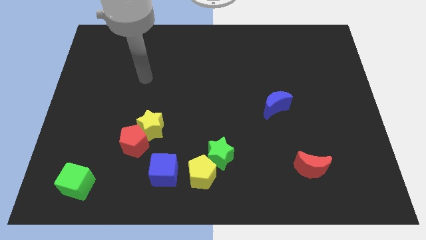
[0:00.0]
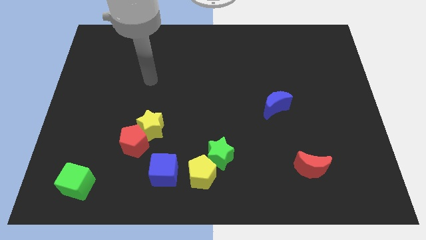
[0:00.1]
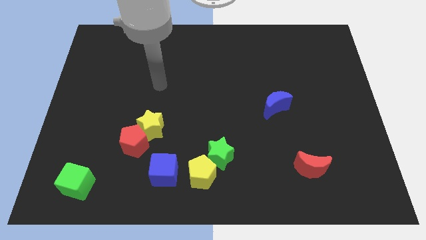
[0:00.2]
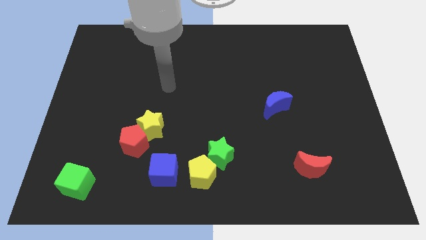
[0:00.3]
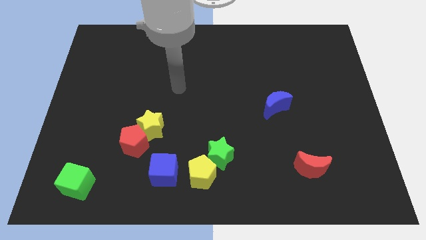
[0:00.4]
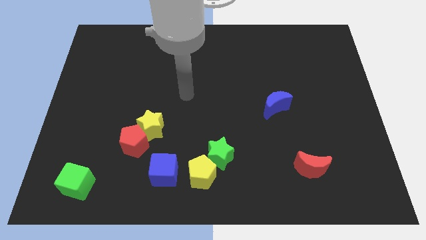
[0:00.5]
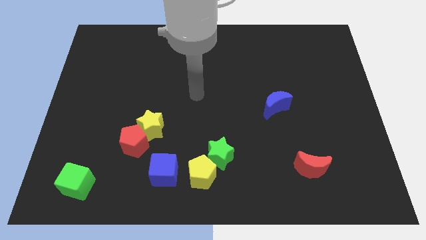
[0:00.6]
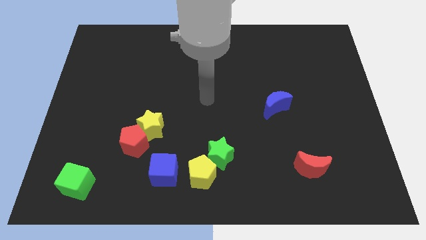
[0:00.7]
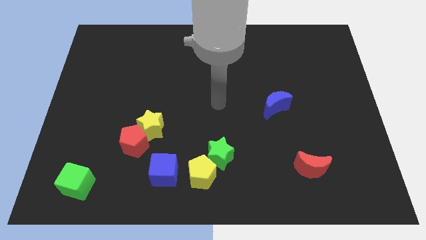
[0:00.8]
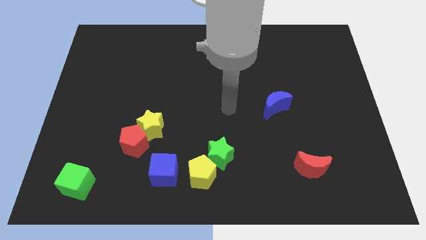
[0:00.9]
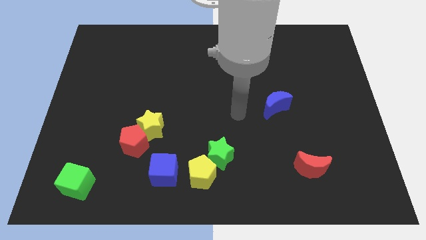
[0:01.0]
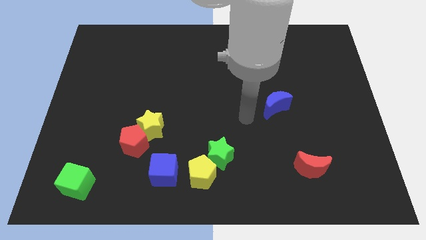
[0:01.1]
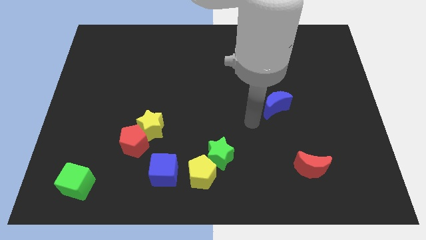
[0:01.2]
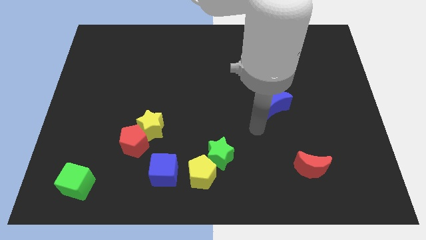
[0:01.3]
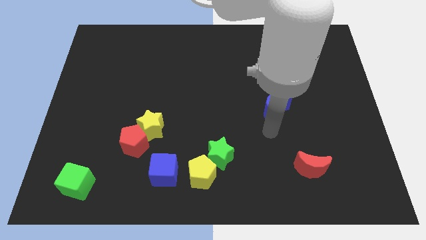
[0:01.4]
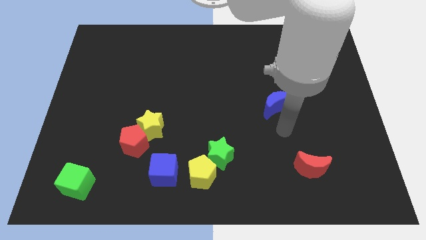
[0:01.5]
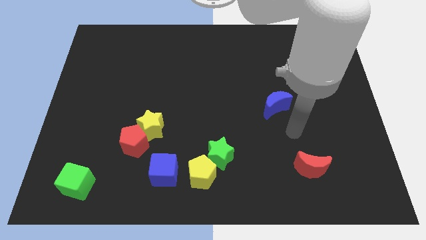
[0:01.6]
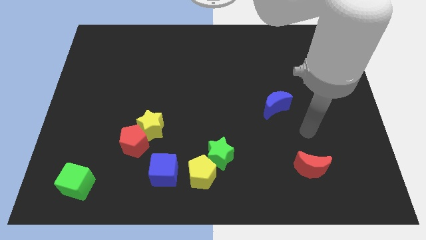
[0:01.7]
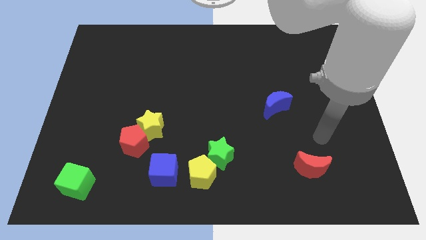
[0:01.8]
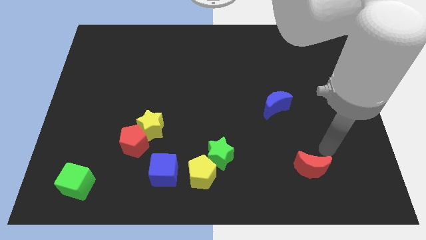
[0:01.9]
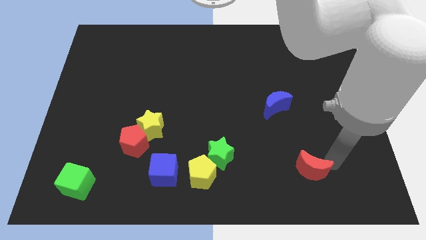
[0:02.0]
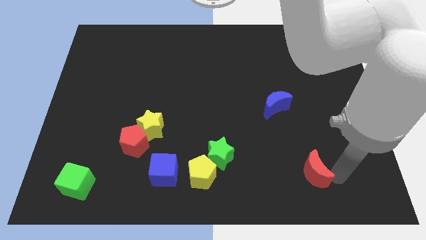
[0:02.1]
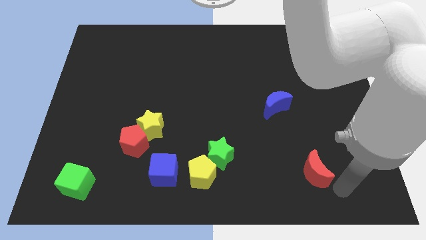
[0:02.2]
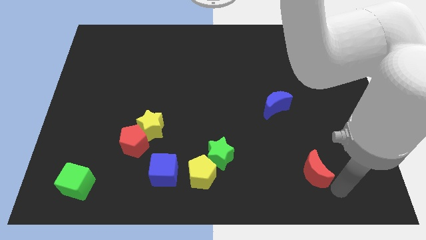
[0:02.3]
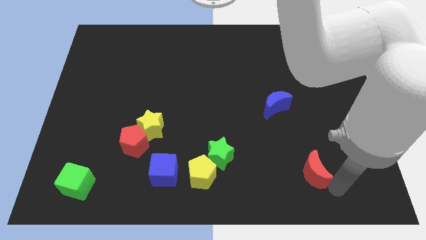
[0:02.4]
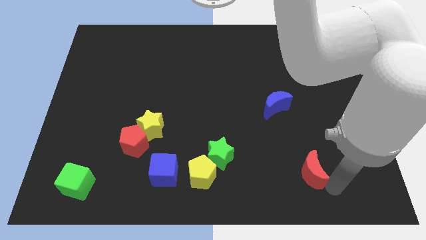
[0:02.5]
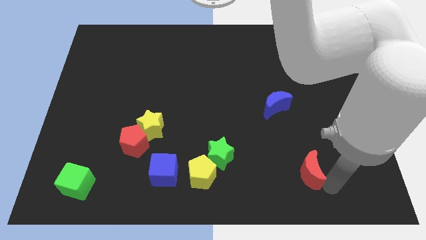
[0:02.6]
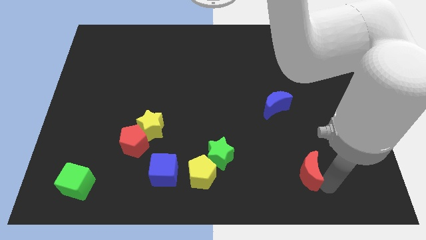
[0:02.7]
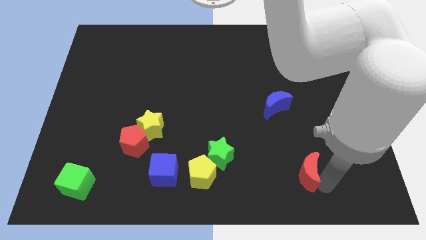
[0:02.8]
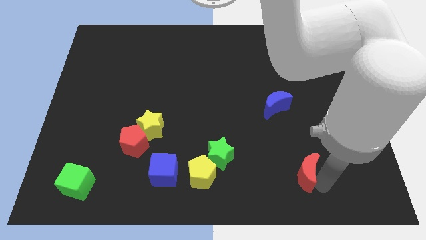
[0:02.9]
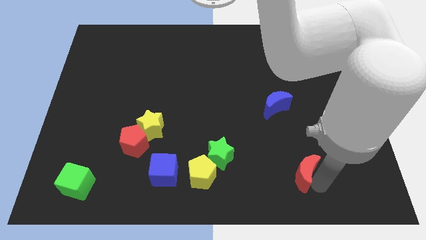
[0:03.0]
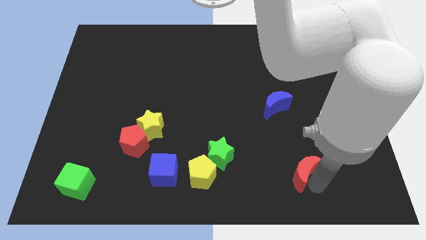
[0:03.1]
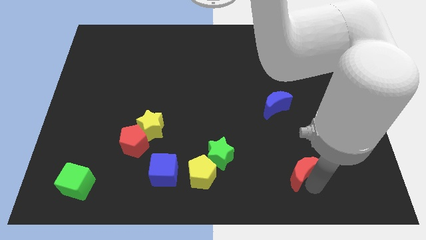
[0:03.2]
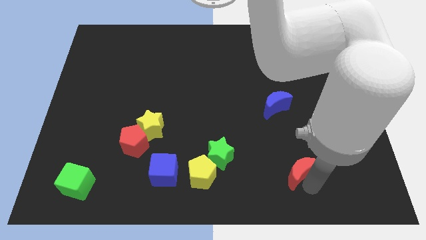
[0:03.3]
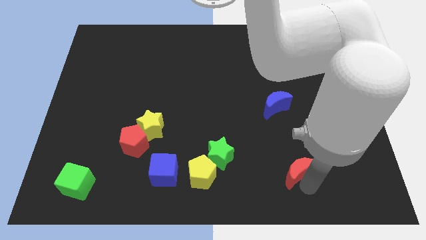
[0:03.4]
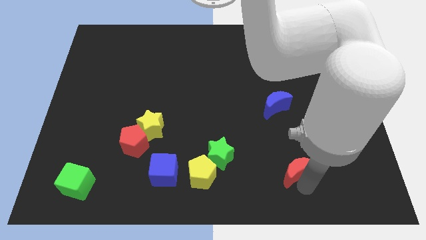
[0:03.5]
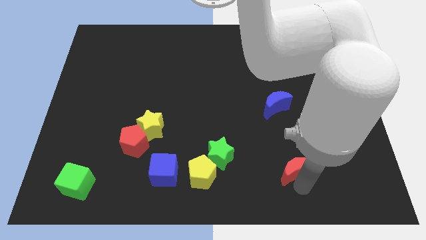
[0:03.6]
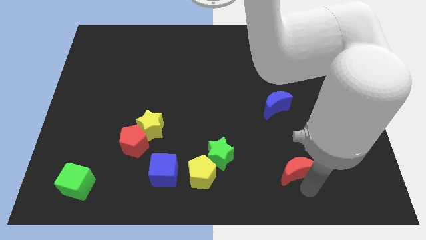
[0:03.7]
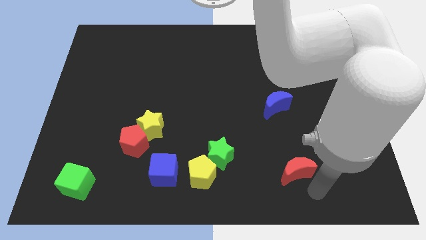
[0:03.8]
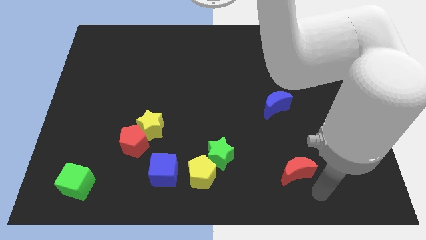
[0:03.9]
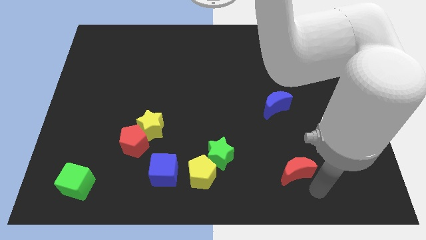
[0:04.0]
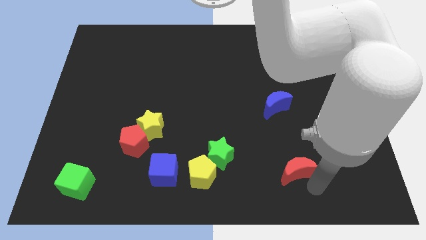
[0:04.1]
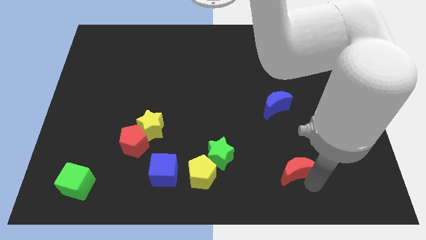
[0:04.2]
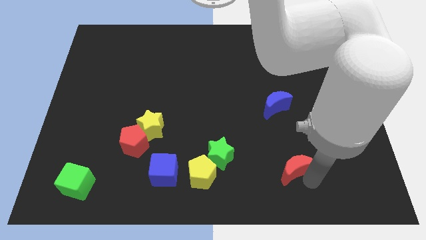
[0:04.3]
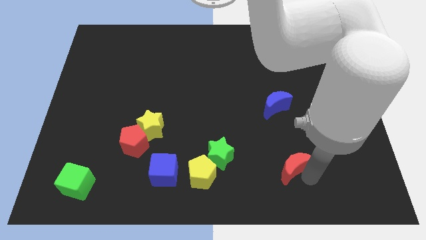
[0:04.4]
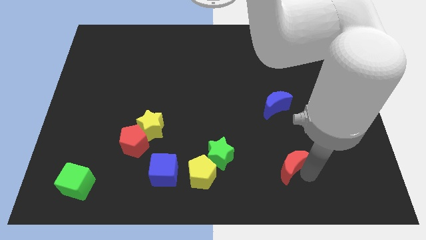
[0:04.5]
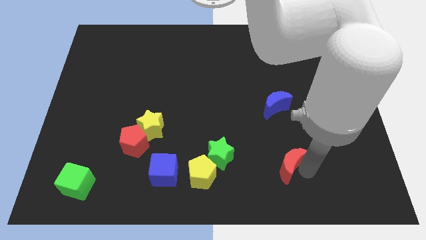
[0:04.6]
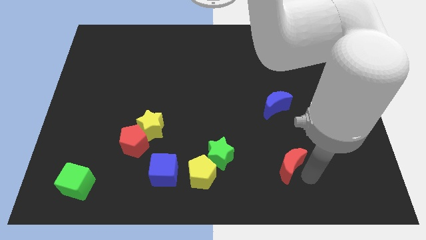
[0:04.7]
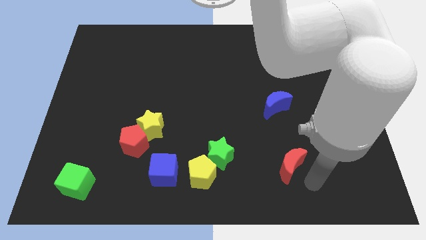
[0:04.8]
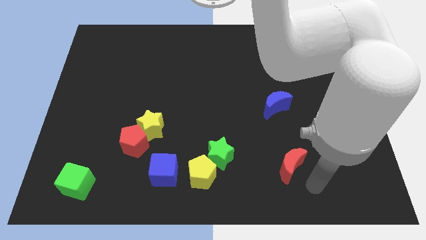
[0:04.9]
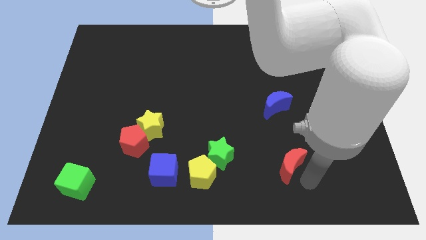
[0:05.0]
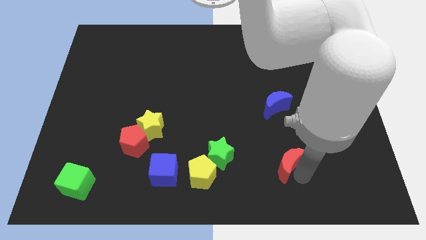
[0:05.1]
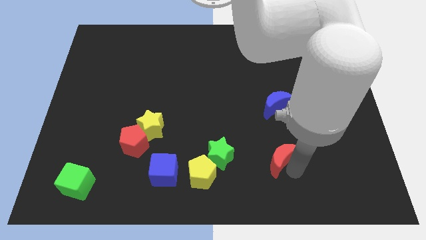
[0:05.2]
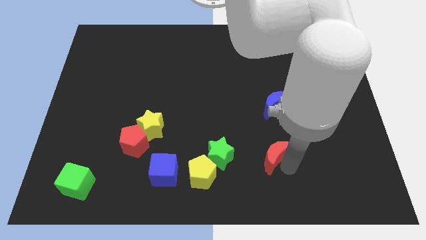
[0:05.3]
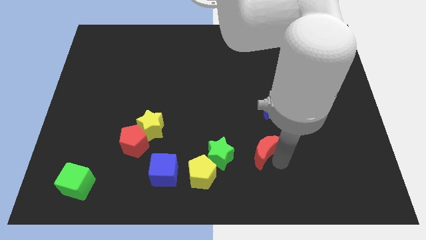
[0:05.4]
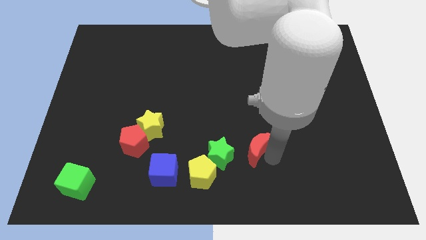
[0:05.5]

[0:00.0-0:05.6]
put the red moon diagonally up and to the right of the green star

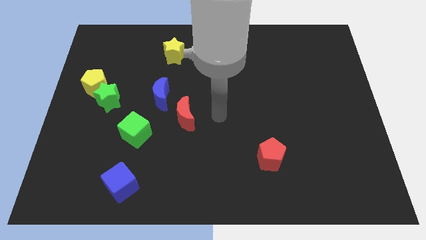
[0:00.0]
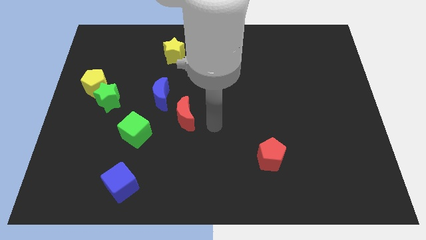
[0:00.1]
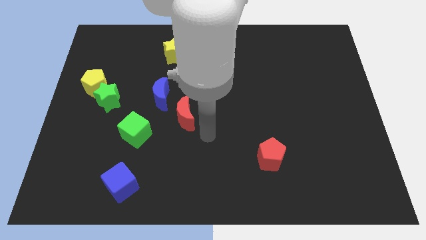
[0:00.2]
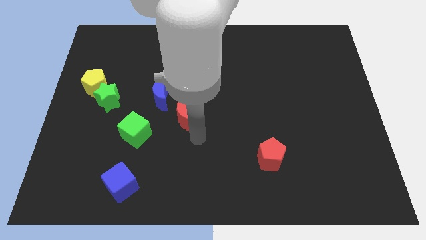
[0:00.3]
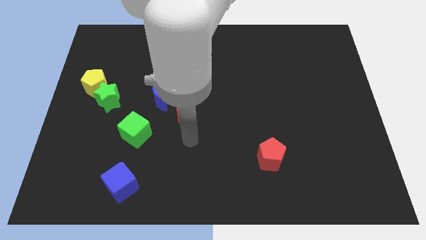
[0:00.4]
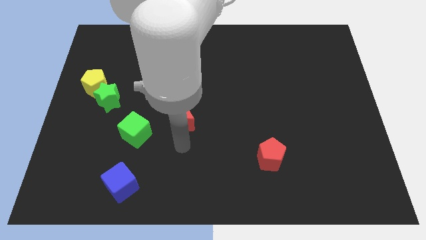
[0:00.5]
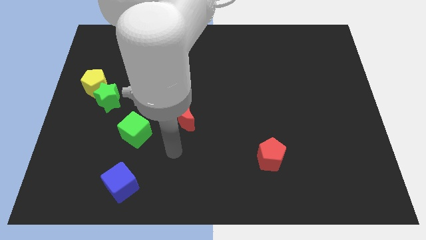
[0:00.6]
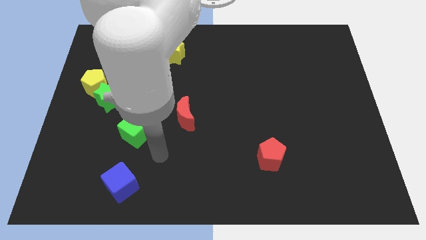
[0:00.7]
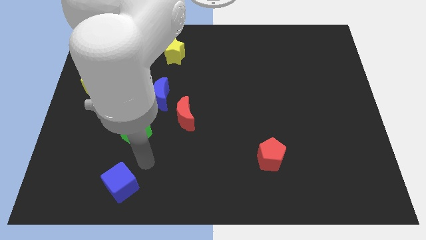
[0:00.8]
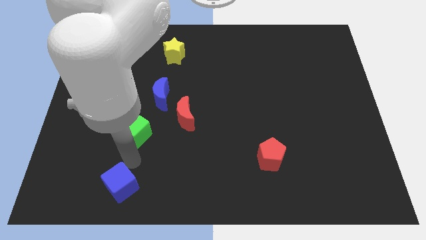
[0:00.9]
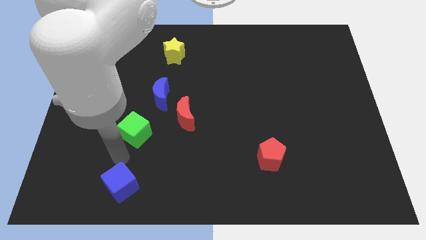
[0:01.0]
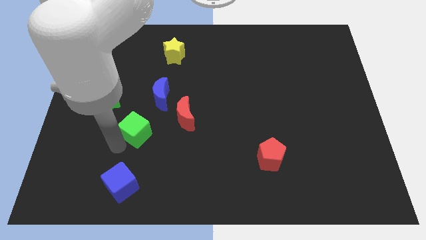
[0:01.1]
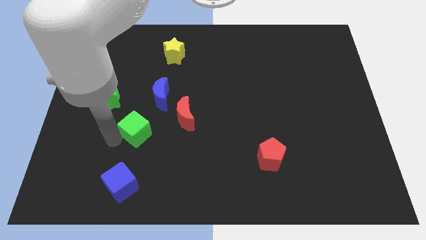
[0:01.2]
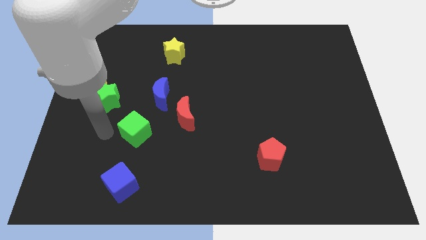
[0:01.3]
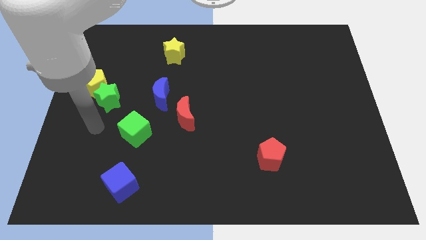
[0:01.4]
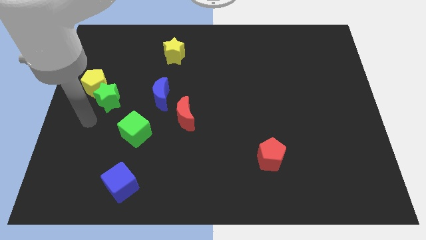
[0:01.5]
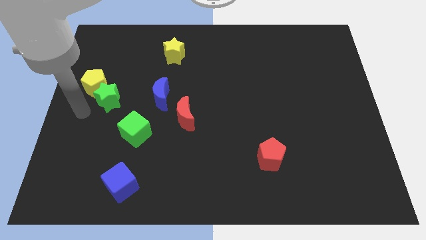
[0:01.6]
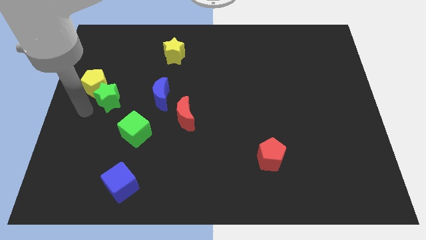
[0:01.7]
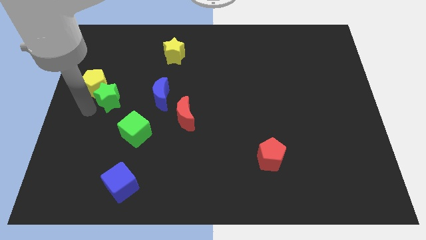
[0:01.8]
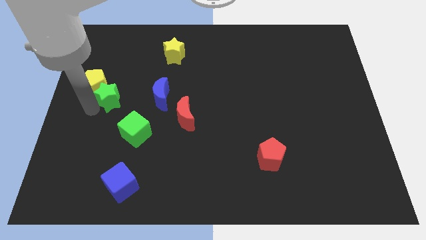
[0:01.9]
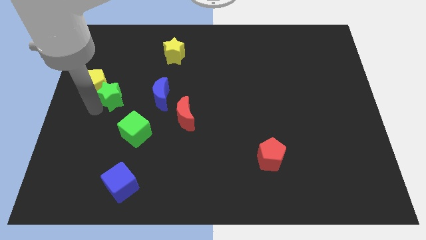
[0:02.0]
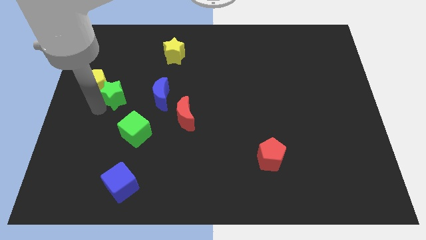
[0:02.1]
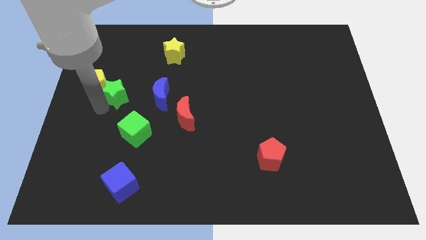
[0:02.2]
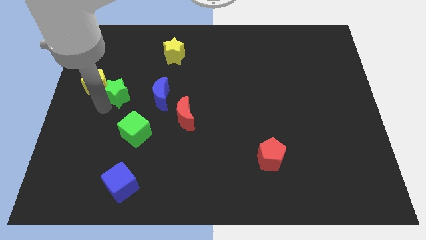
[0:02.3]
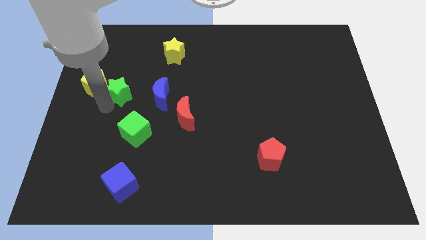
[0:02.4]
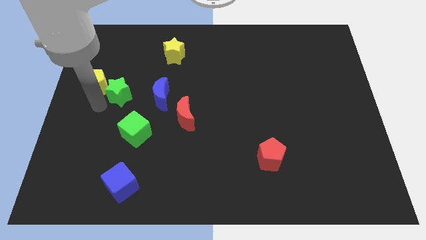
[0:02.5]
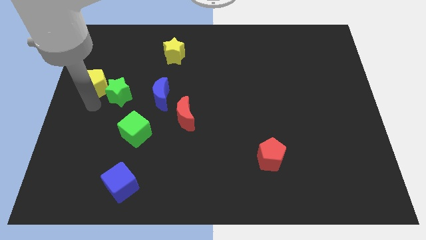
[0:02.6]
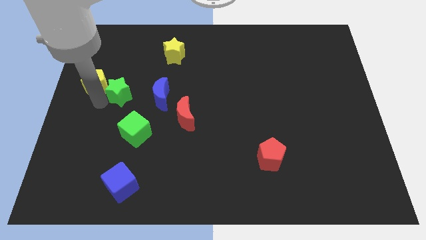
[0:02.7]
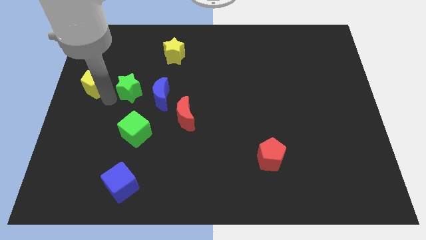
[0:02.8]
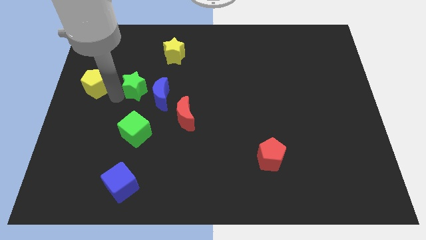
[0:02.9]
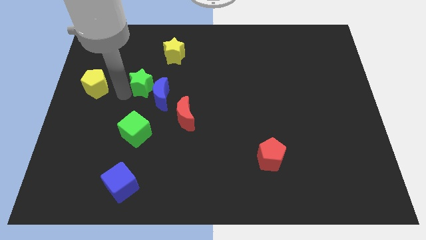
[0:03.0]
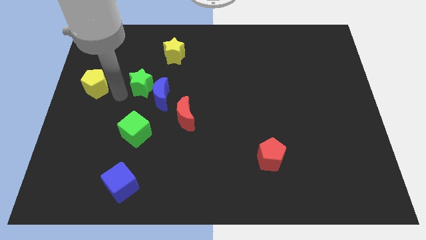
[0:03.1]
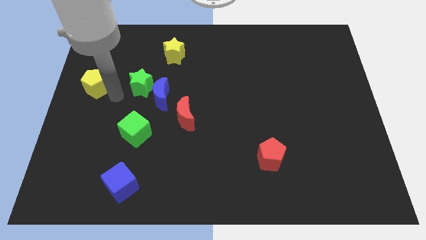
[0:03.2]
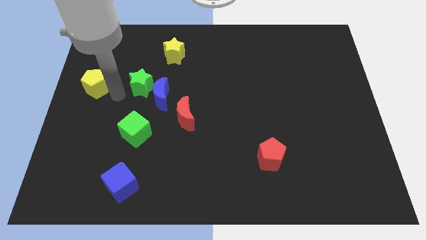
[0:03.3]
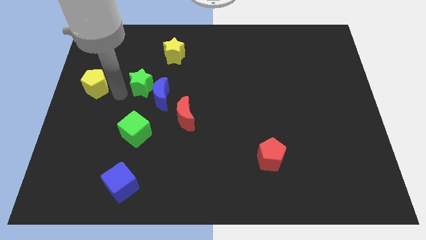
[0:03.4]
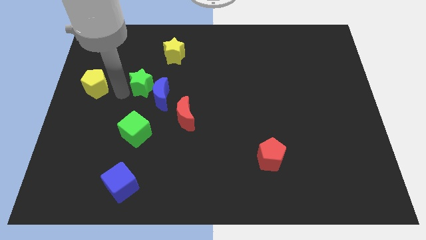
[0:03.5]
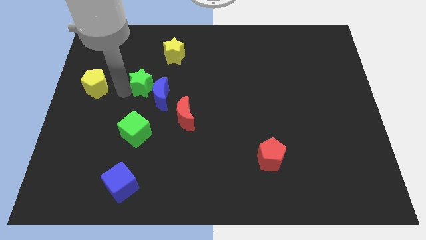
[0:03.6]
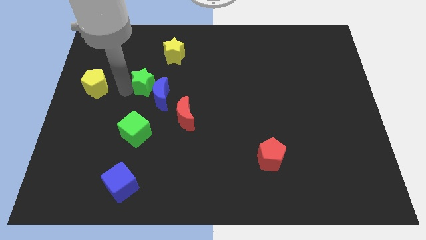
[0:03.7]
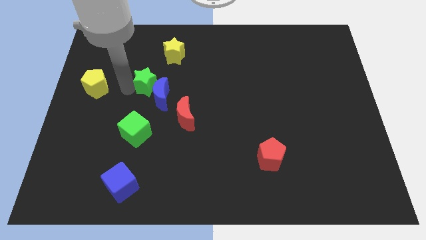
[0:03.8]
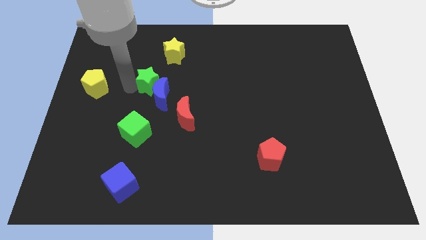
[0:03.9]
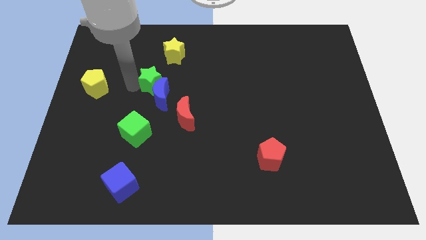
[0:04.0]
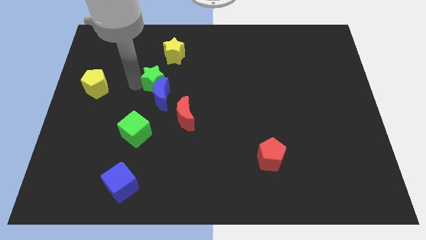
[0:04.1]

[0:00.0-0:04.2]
put the green star to the bottom of the yellow star
